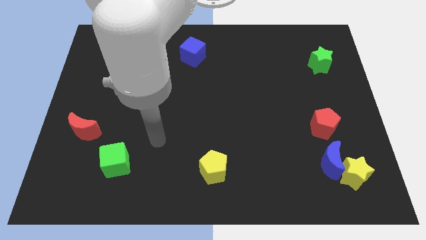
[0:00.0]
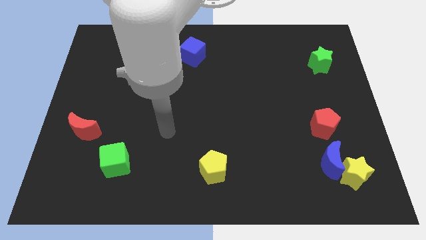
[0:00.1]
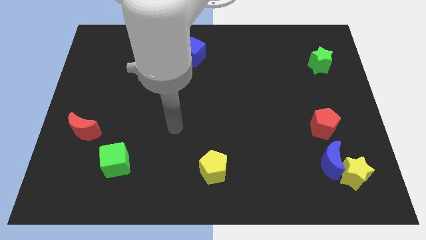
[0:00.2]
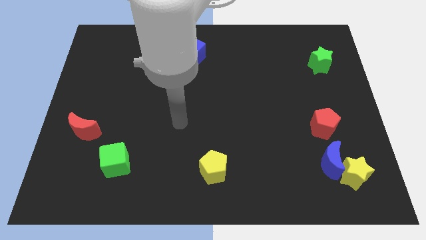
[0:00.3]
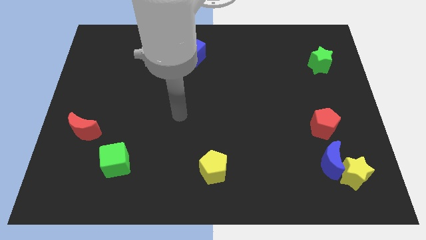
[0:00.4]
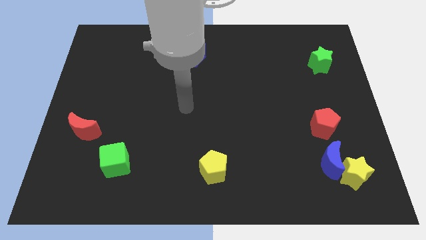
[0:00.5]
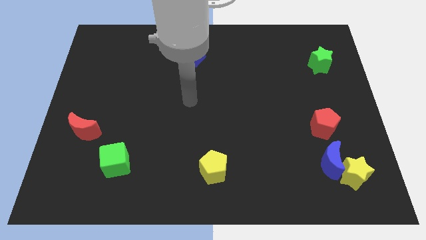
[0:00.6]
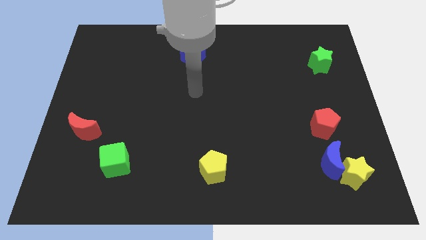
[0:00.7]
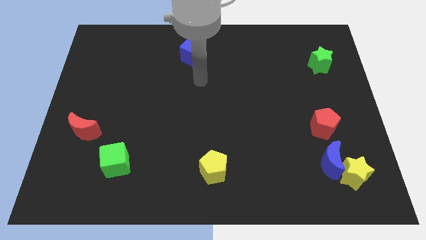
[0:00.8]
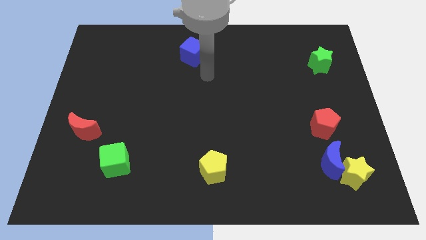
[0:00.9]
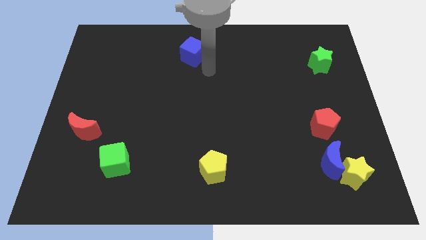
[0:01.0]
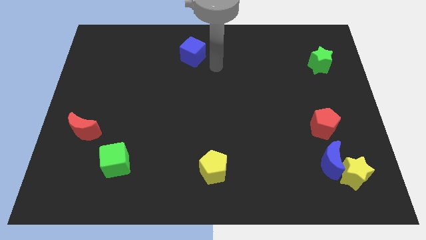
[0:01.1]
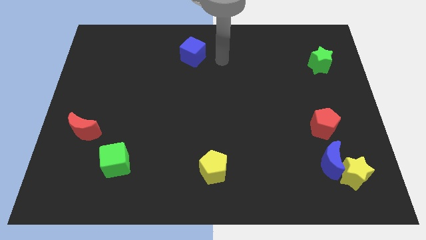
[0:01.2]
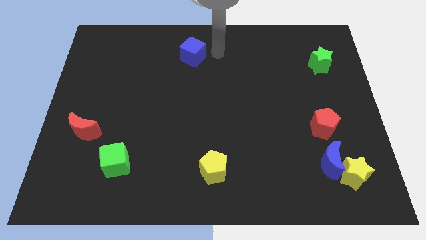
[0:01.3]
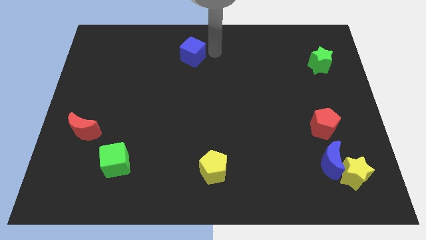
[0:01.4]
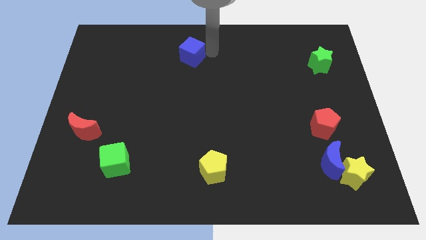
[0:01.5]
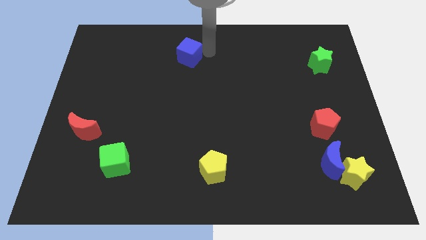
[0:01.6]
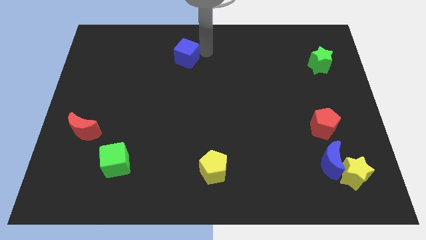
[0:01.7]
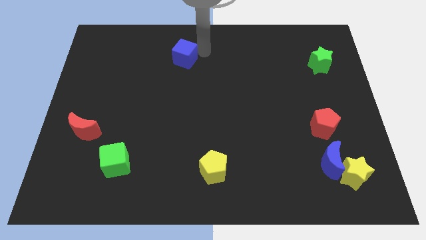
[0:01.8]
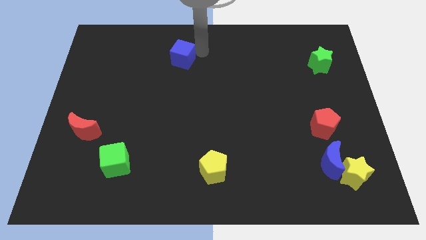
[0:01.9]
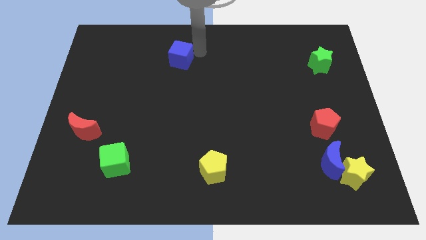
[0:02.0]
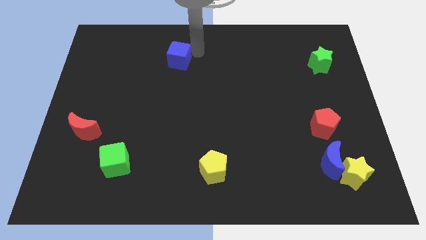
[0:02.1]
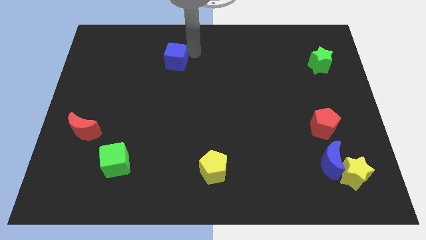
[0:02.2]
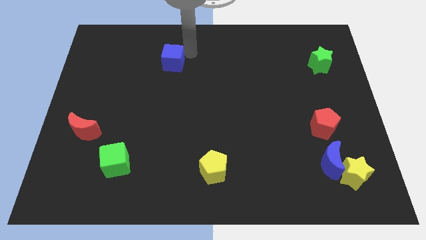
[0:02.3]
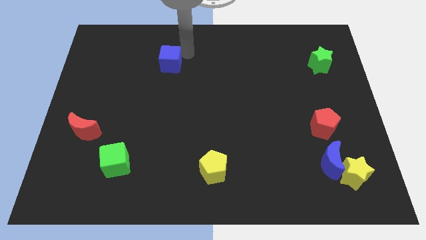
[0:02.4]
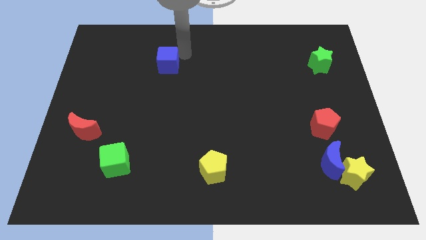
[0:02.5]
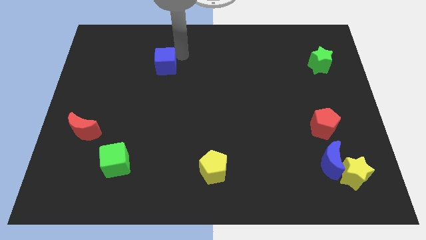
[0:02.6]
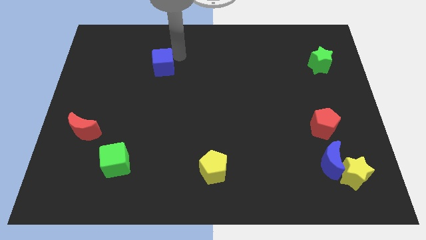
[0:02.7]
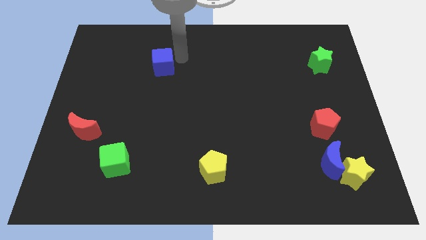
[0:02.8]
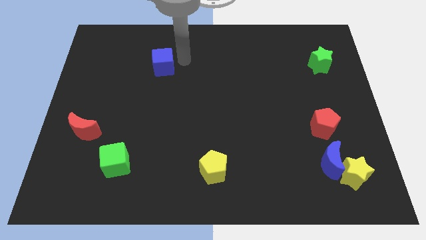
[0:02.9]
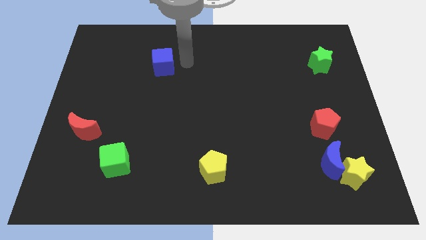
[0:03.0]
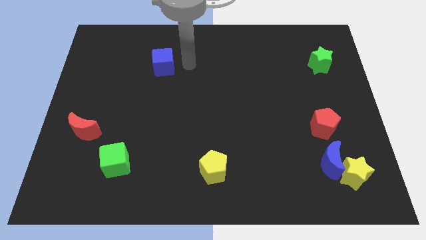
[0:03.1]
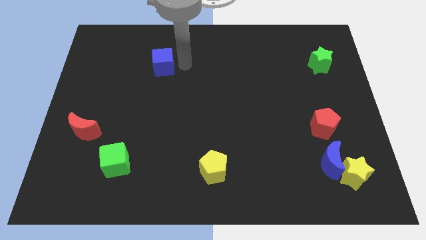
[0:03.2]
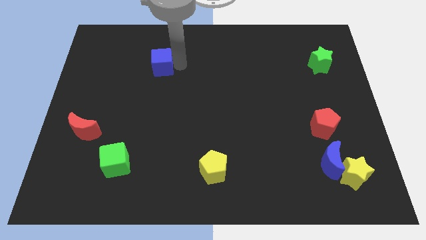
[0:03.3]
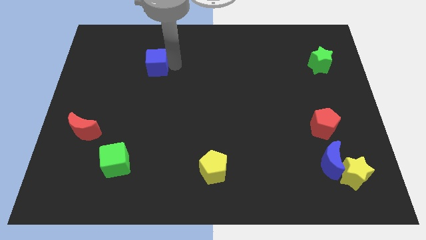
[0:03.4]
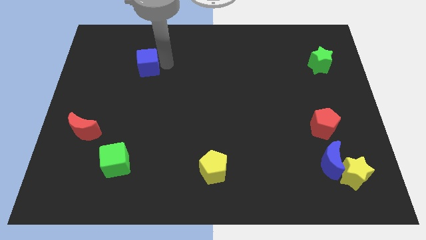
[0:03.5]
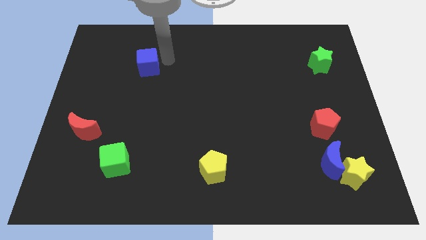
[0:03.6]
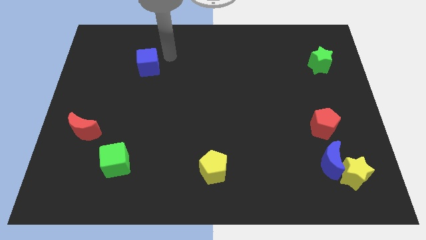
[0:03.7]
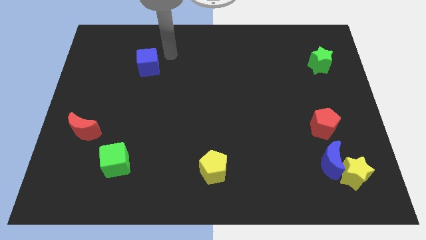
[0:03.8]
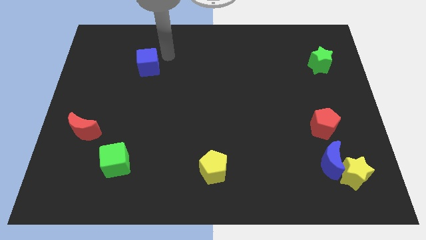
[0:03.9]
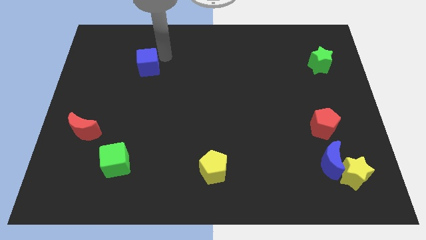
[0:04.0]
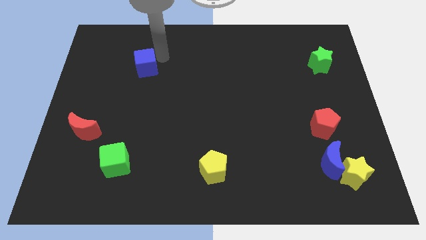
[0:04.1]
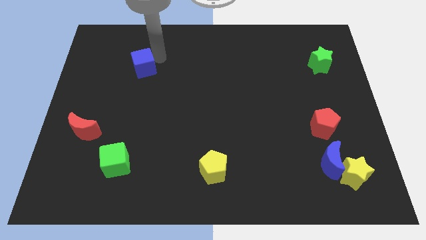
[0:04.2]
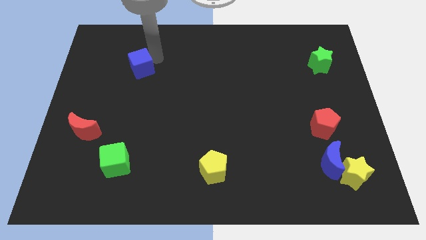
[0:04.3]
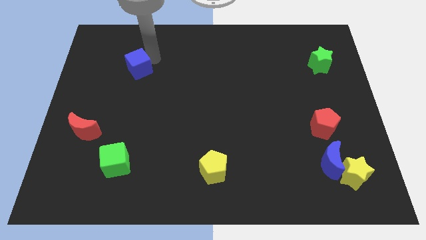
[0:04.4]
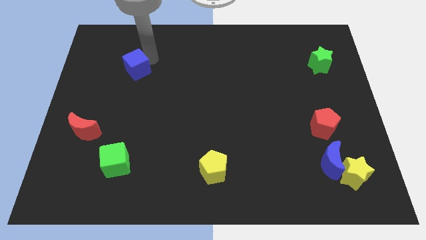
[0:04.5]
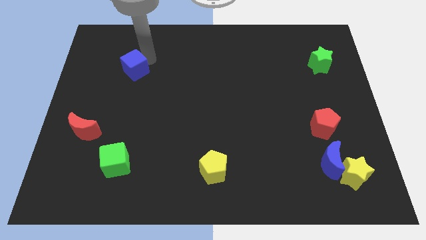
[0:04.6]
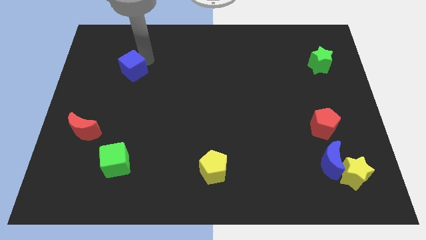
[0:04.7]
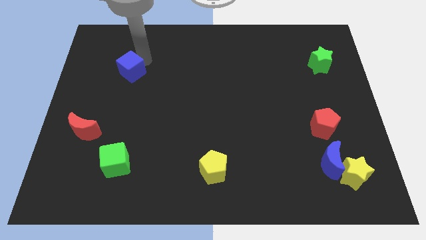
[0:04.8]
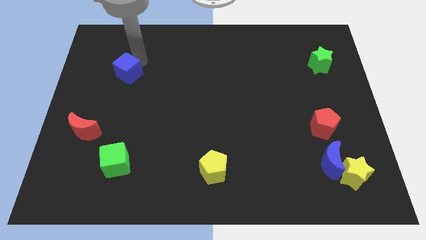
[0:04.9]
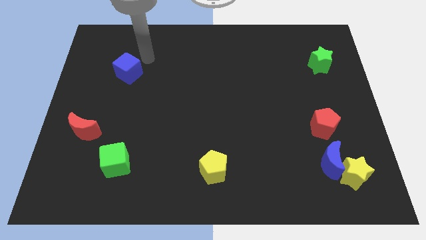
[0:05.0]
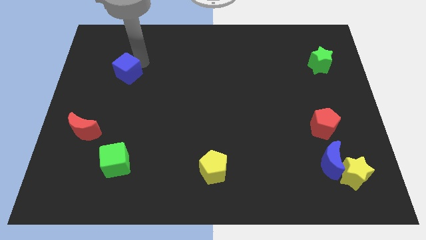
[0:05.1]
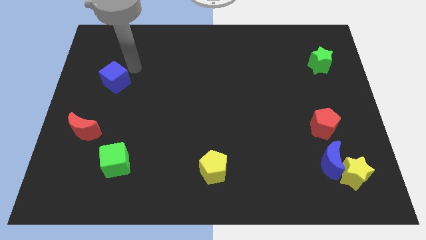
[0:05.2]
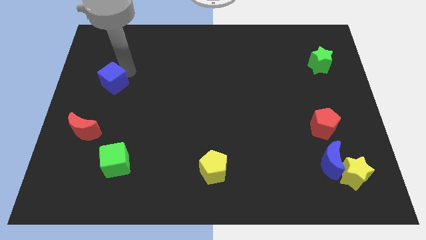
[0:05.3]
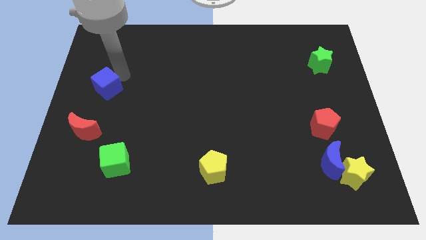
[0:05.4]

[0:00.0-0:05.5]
put the blue cube above the red moon
